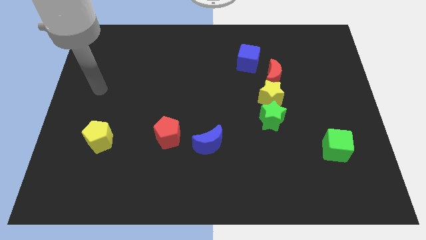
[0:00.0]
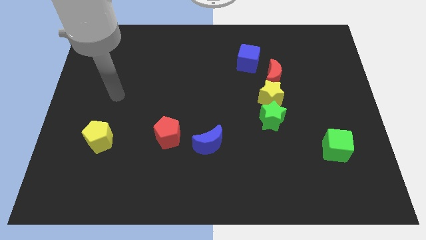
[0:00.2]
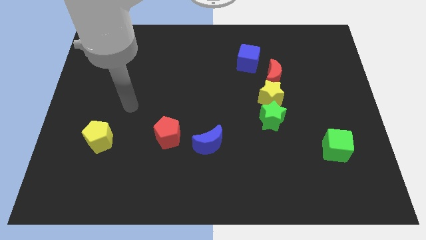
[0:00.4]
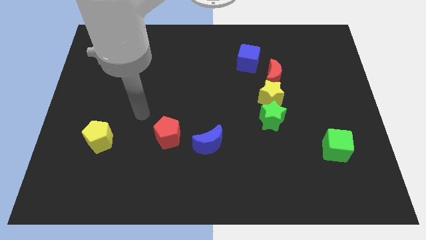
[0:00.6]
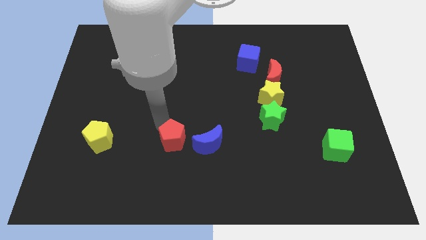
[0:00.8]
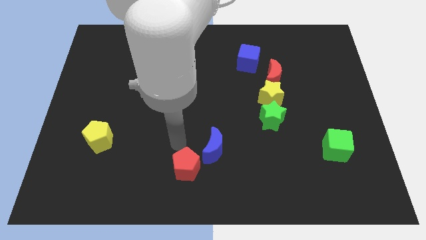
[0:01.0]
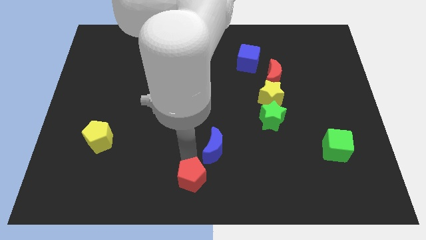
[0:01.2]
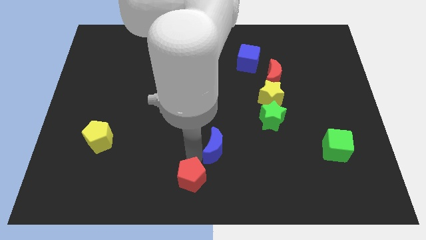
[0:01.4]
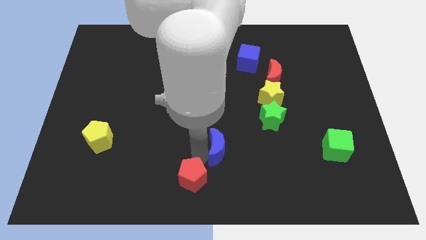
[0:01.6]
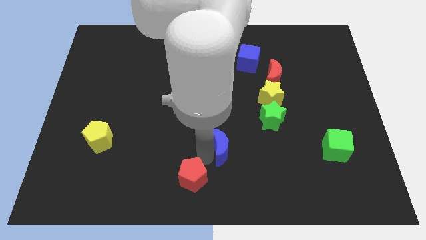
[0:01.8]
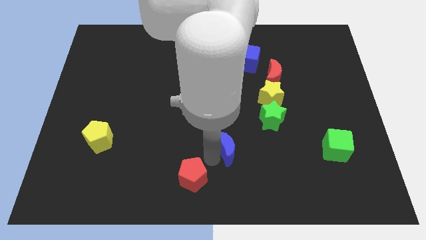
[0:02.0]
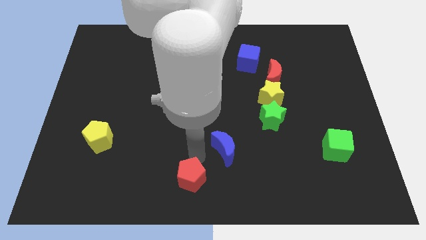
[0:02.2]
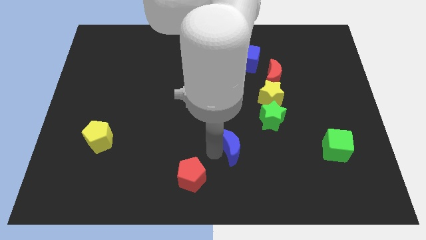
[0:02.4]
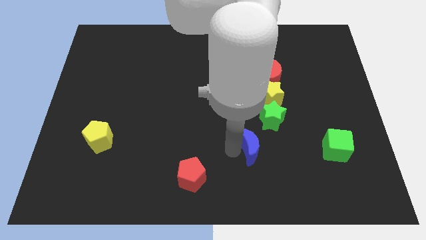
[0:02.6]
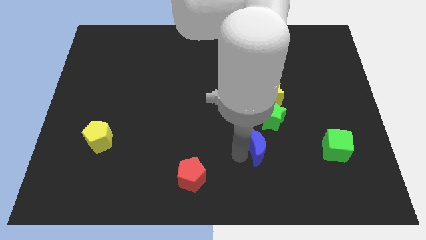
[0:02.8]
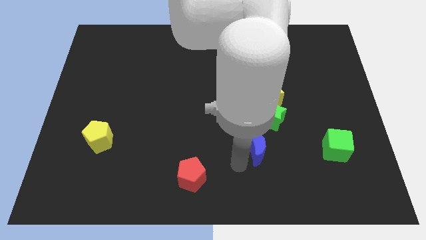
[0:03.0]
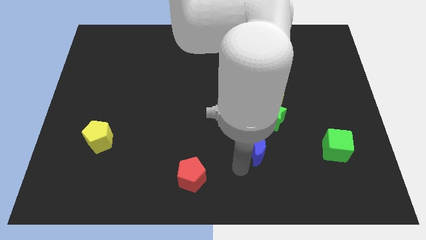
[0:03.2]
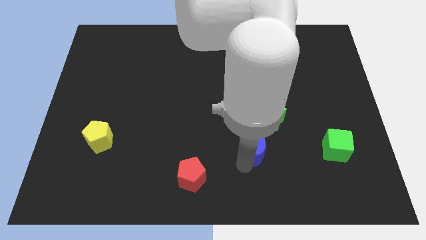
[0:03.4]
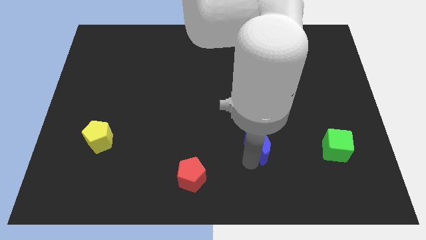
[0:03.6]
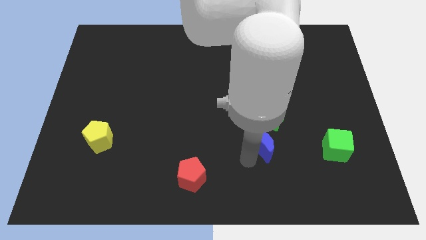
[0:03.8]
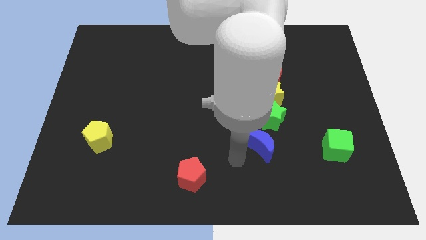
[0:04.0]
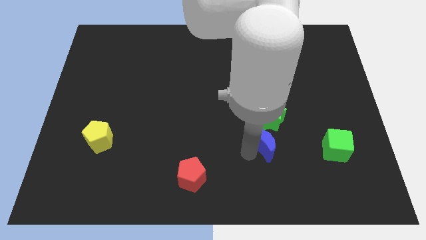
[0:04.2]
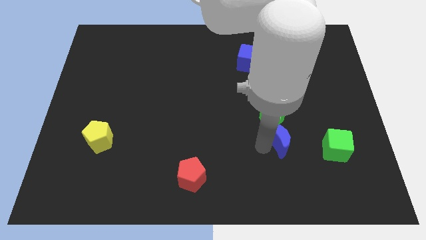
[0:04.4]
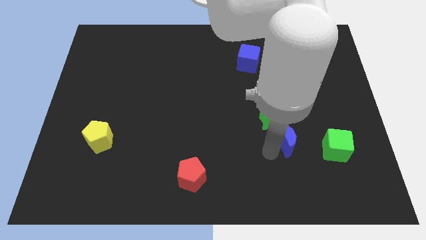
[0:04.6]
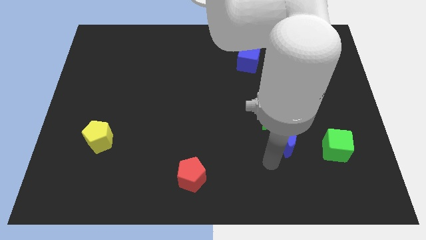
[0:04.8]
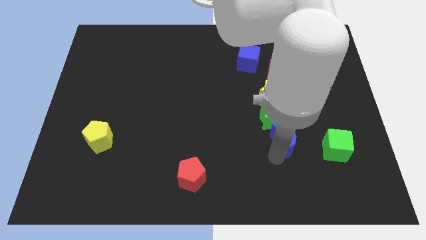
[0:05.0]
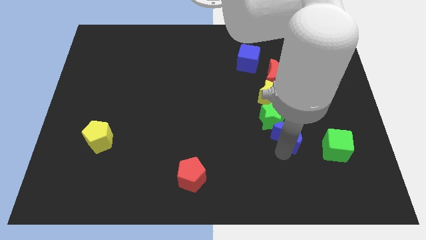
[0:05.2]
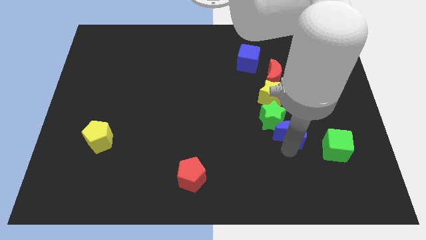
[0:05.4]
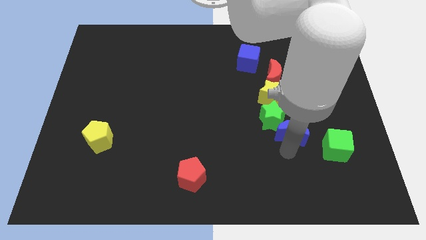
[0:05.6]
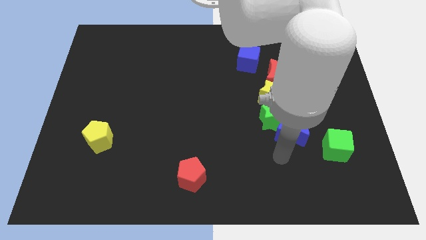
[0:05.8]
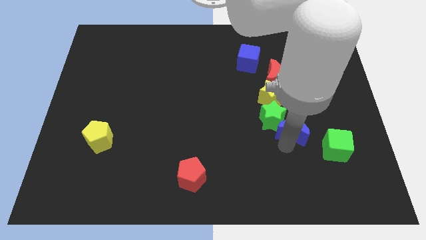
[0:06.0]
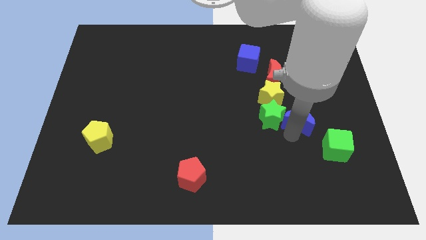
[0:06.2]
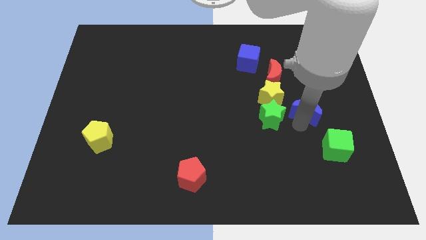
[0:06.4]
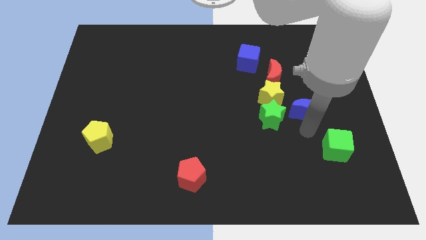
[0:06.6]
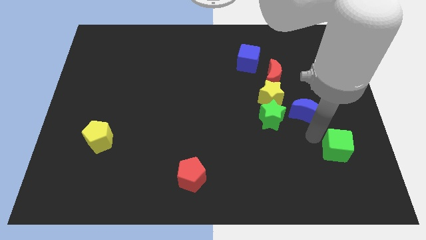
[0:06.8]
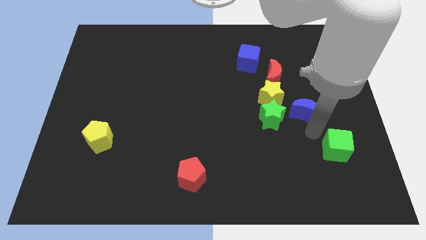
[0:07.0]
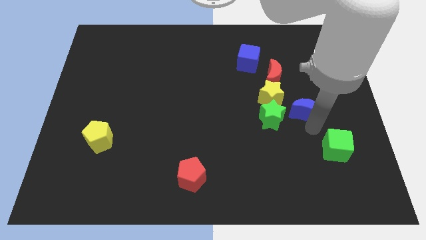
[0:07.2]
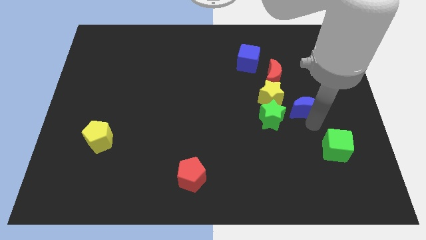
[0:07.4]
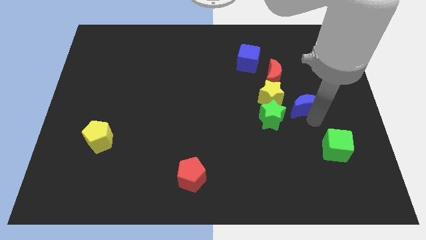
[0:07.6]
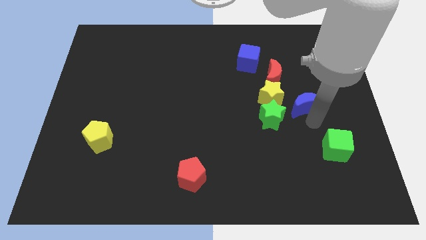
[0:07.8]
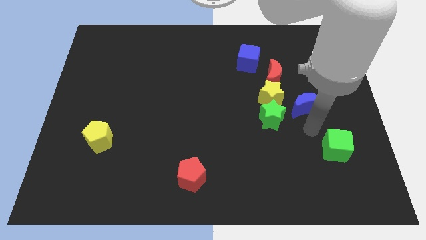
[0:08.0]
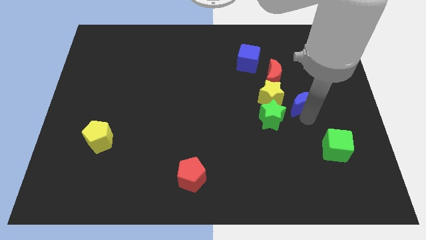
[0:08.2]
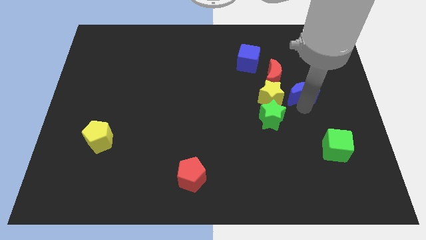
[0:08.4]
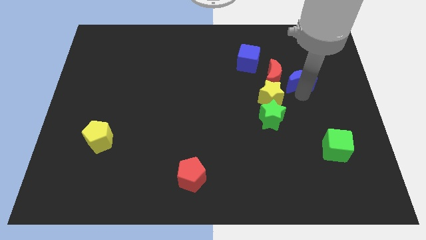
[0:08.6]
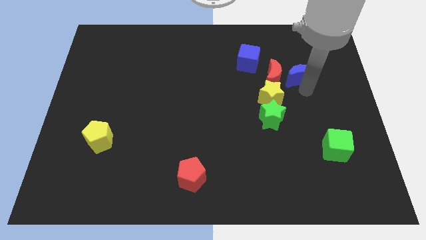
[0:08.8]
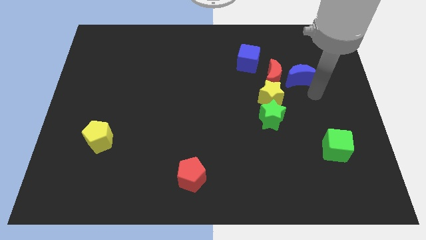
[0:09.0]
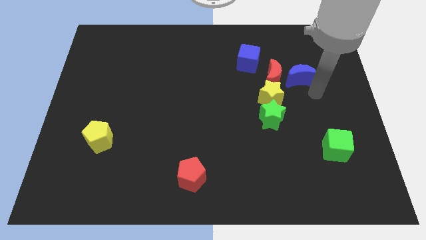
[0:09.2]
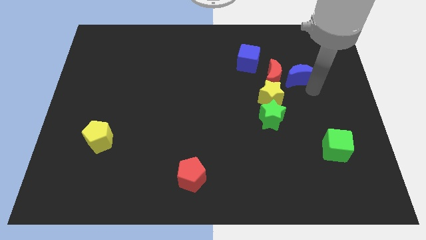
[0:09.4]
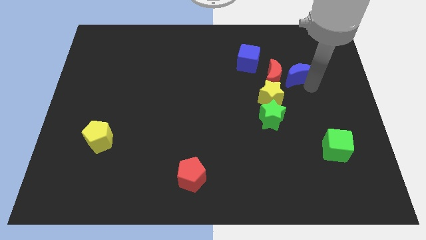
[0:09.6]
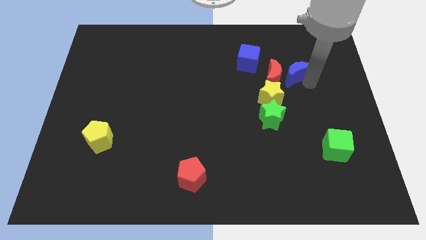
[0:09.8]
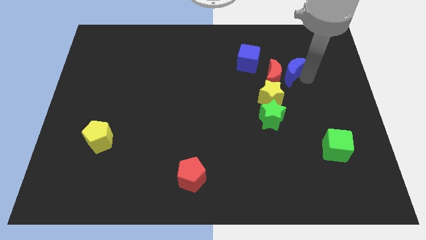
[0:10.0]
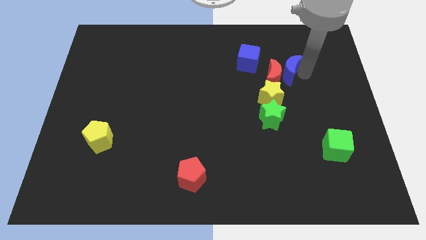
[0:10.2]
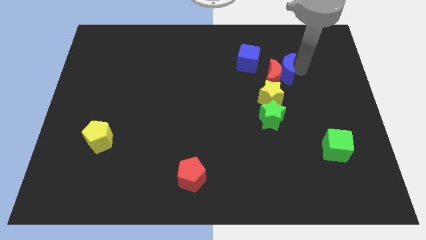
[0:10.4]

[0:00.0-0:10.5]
move the blue moon above the yellow star
